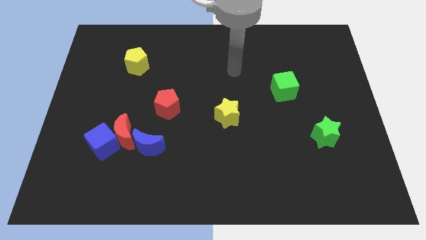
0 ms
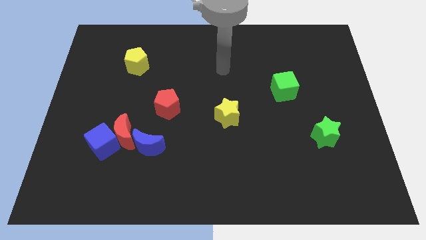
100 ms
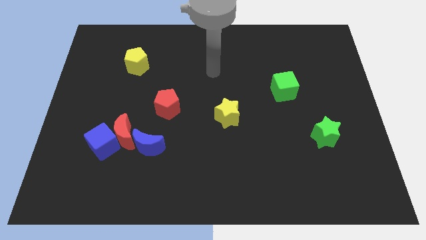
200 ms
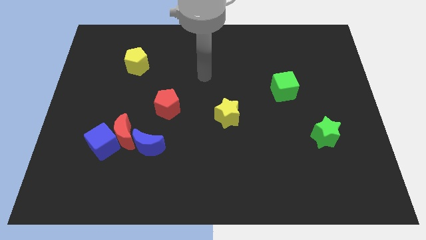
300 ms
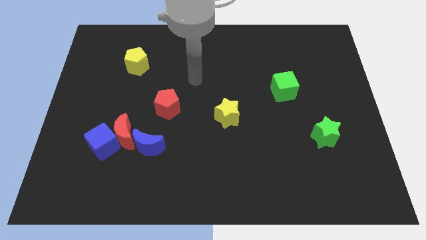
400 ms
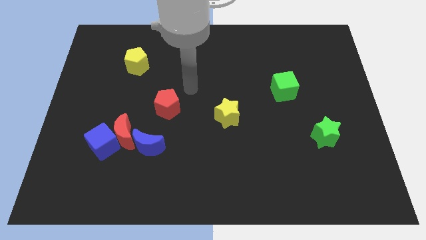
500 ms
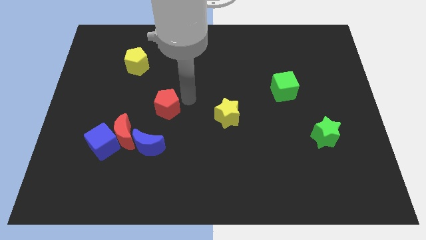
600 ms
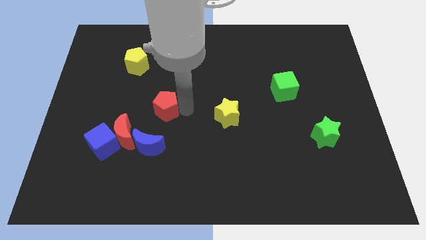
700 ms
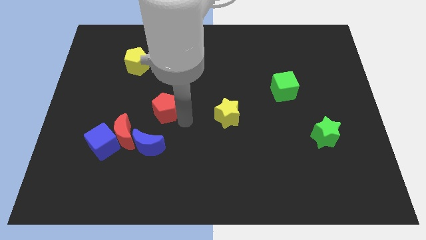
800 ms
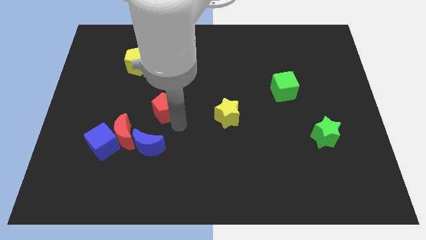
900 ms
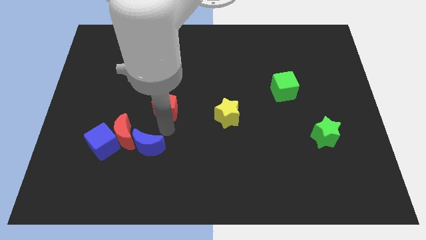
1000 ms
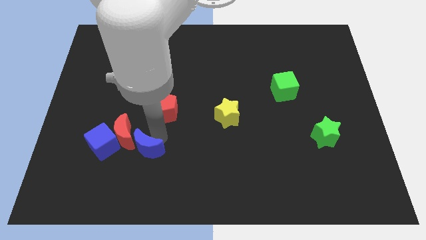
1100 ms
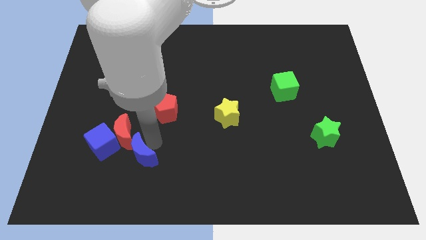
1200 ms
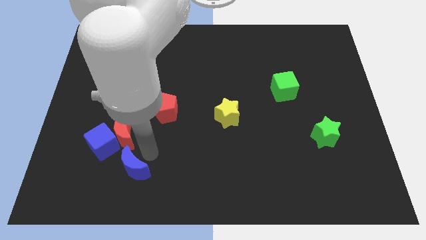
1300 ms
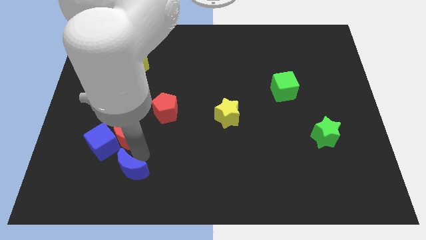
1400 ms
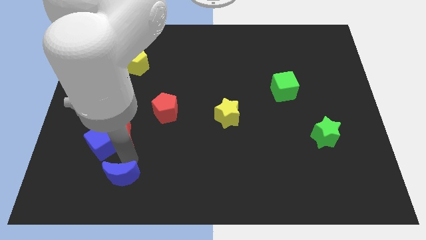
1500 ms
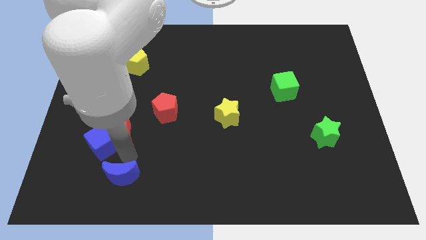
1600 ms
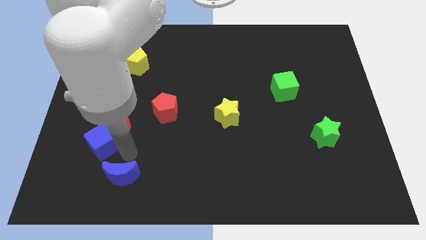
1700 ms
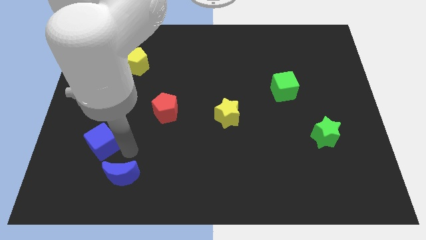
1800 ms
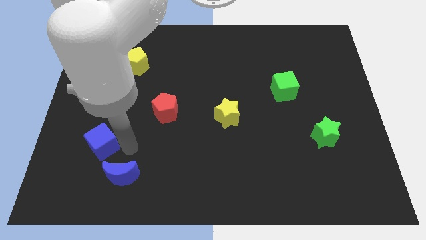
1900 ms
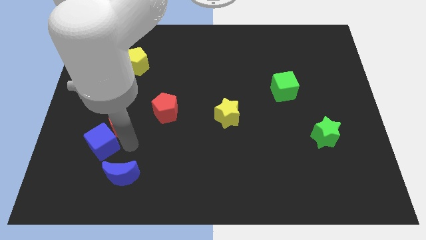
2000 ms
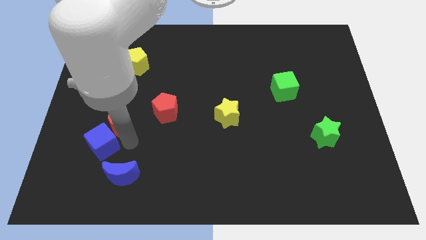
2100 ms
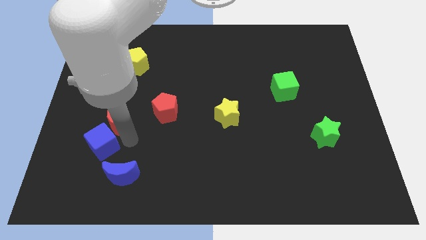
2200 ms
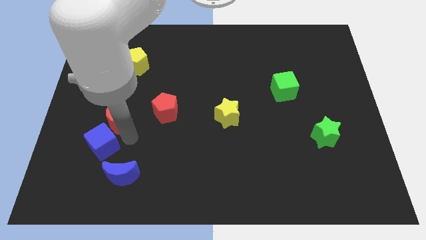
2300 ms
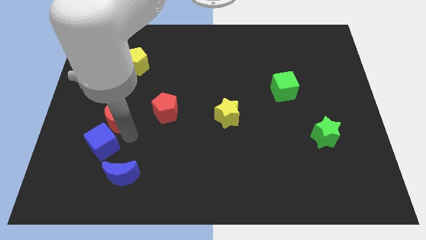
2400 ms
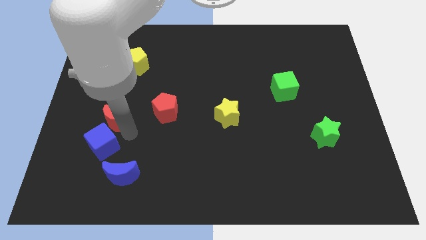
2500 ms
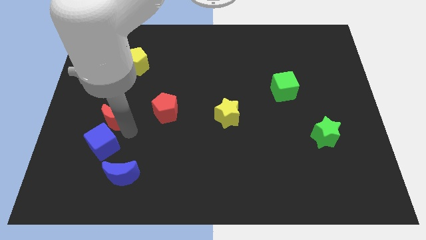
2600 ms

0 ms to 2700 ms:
pull the red moon apart from the blue cube and blue moon

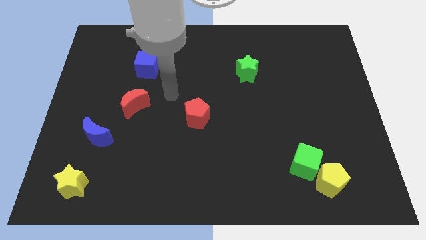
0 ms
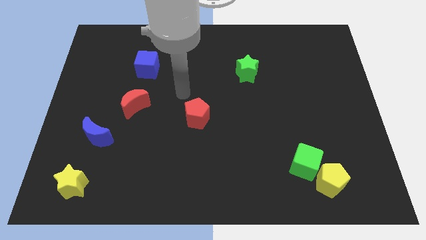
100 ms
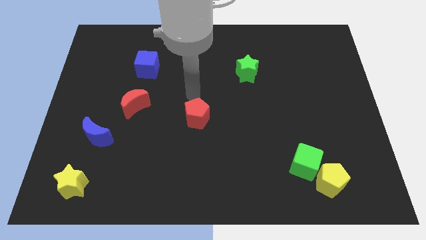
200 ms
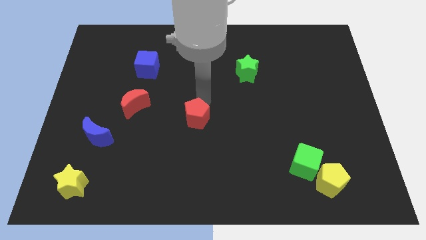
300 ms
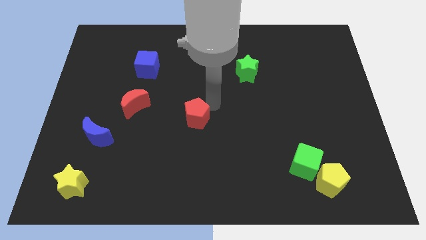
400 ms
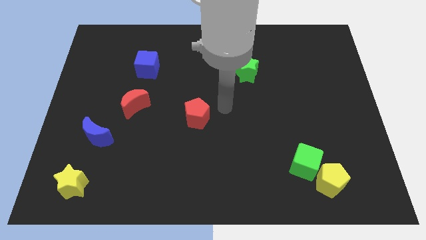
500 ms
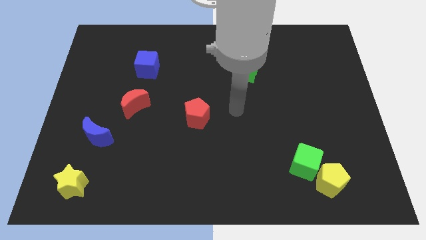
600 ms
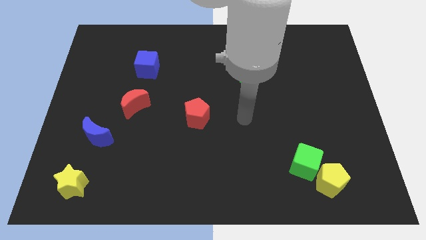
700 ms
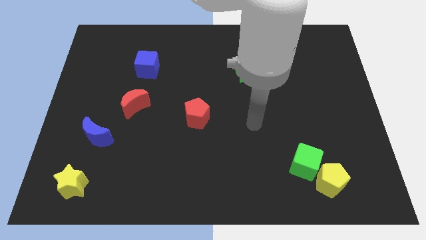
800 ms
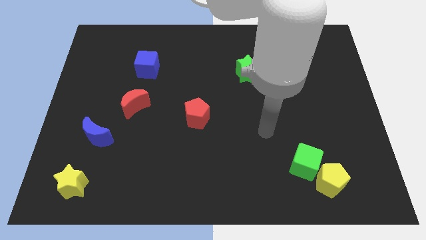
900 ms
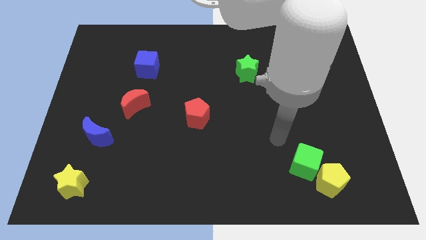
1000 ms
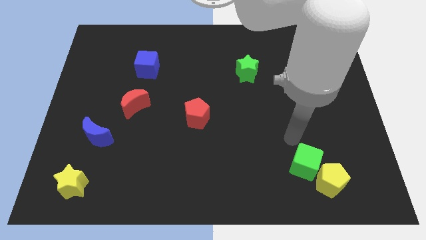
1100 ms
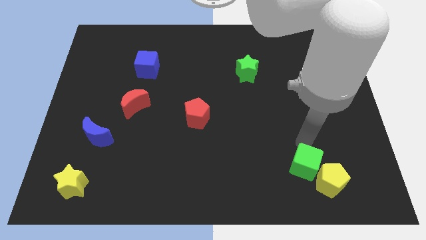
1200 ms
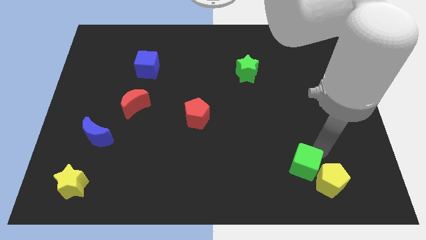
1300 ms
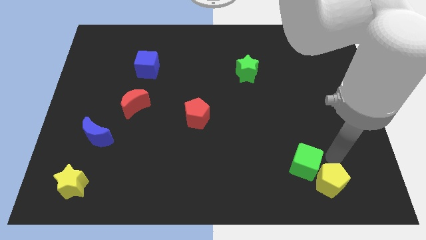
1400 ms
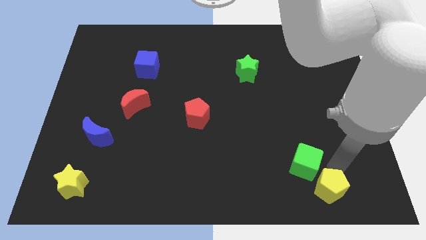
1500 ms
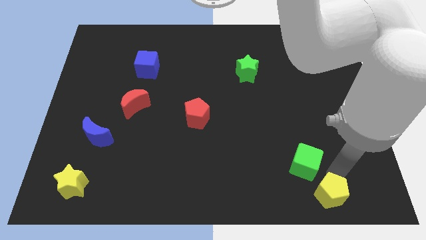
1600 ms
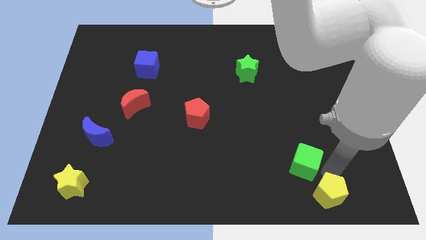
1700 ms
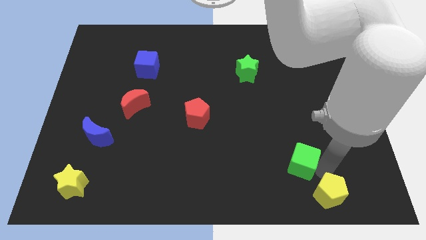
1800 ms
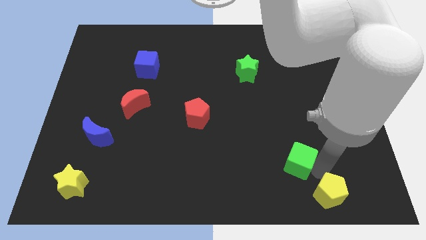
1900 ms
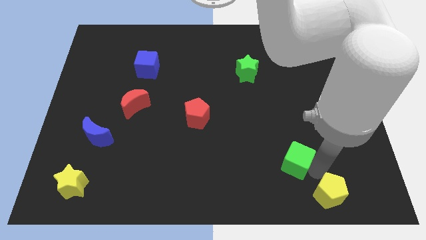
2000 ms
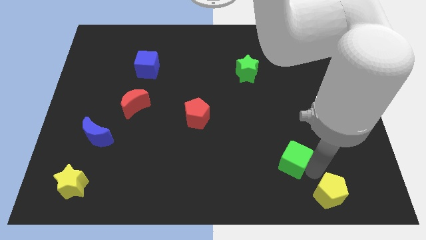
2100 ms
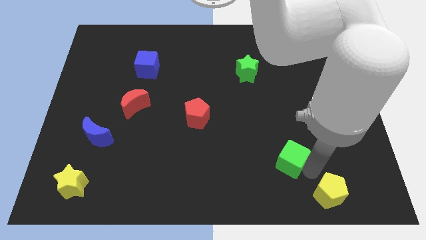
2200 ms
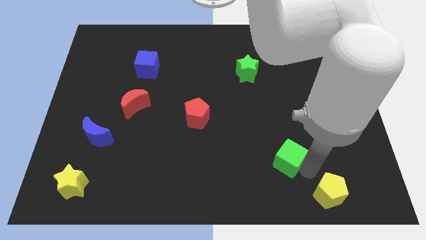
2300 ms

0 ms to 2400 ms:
separate the green cube from the yellow pentagon

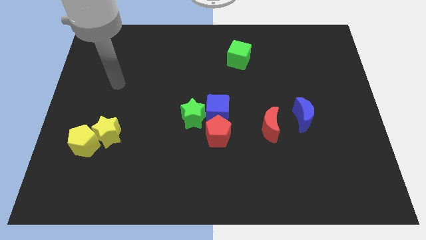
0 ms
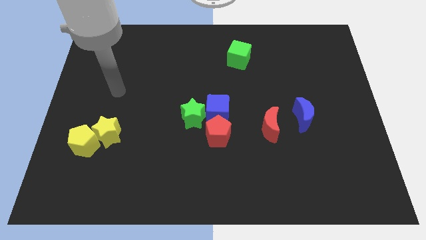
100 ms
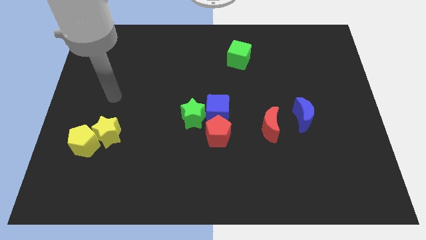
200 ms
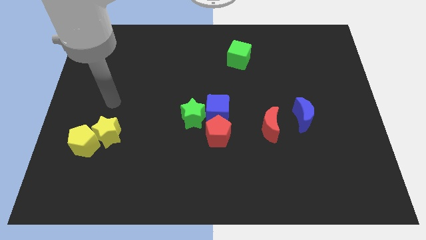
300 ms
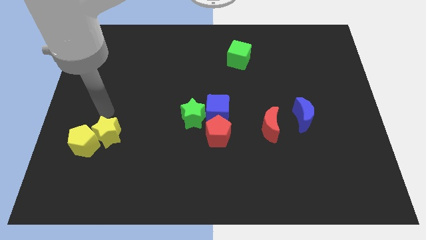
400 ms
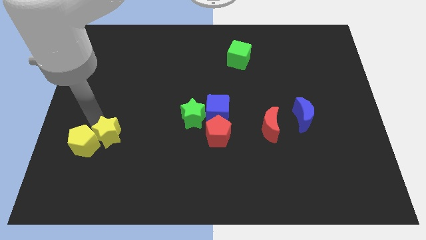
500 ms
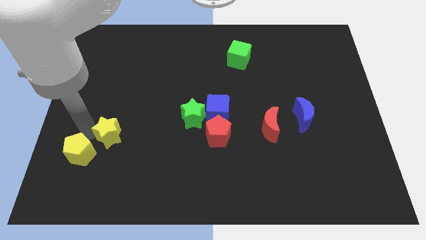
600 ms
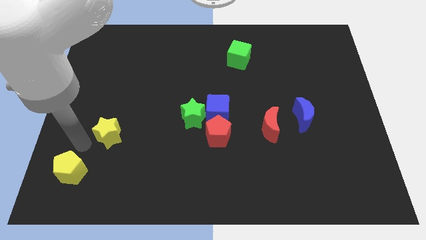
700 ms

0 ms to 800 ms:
pull the yellow star apart from the yellow pentagon

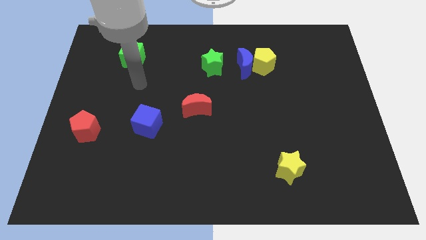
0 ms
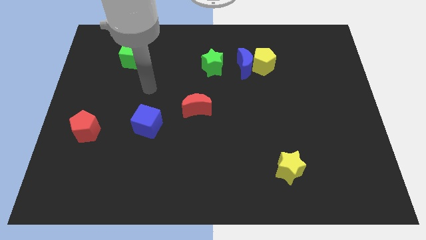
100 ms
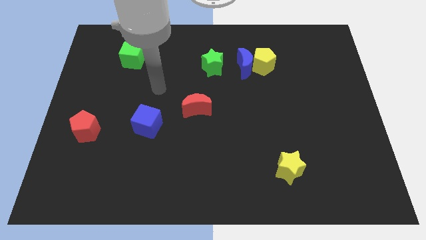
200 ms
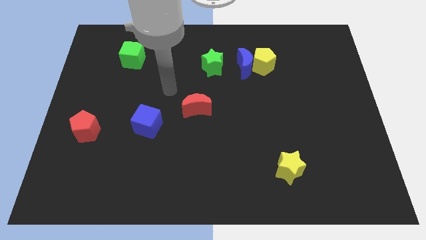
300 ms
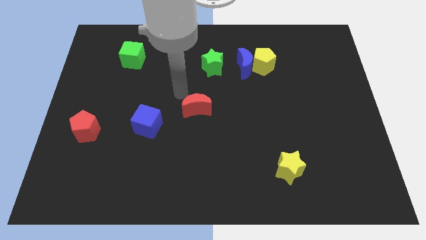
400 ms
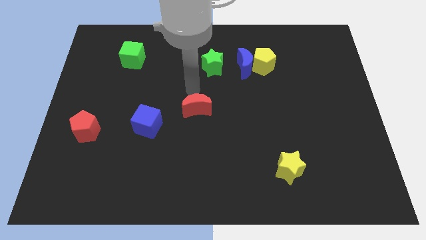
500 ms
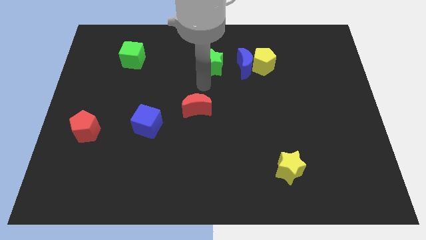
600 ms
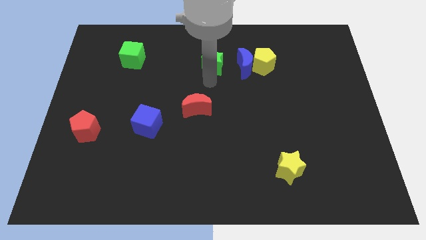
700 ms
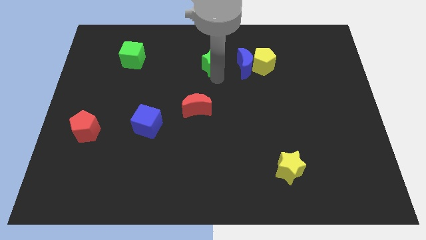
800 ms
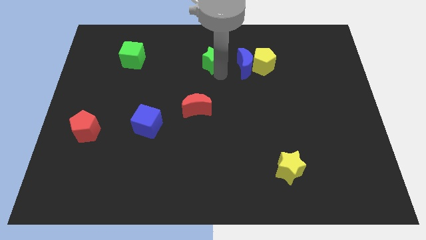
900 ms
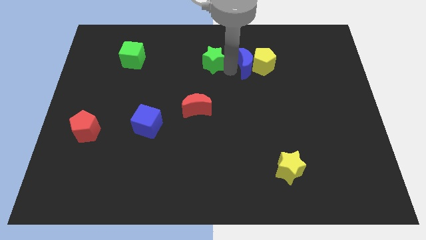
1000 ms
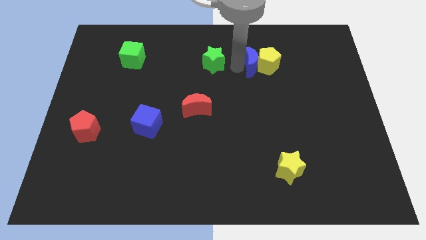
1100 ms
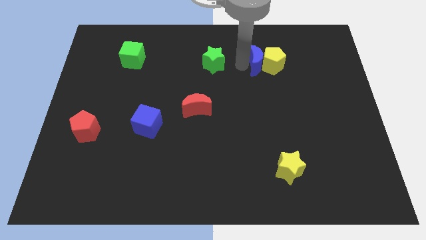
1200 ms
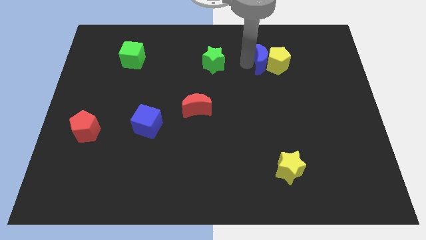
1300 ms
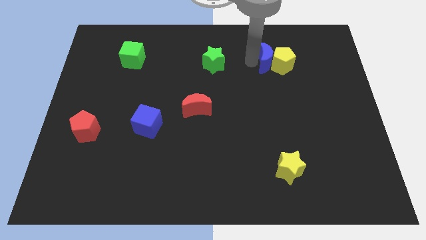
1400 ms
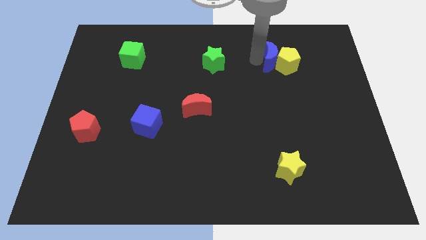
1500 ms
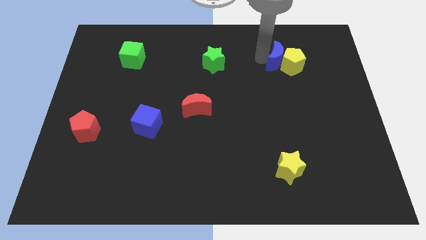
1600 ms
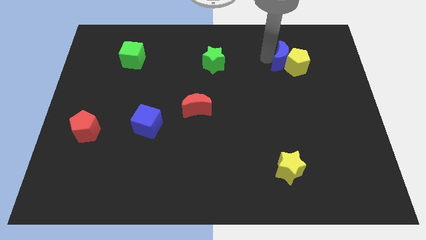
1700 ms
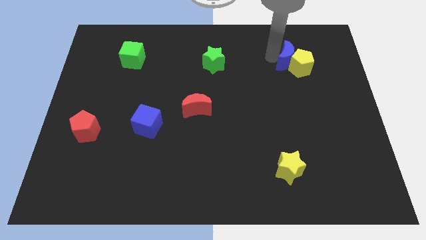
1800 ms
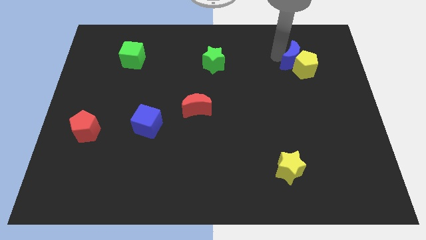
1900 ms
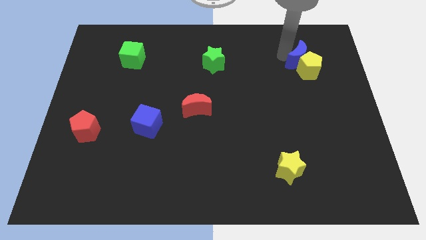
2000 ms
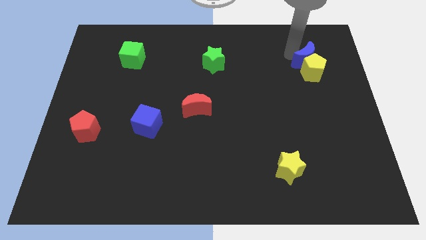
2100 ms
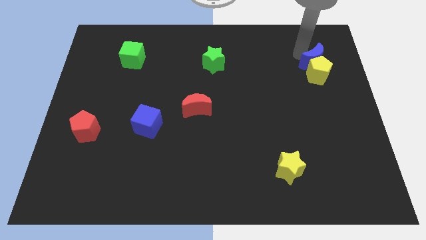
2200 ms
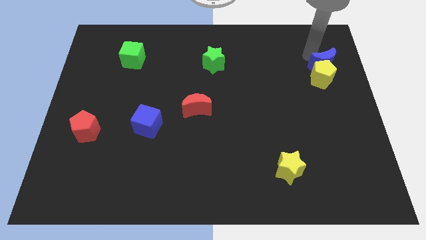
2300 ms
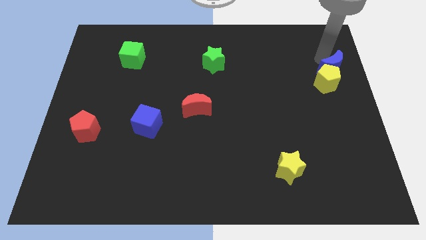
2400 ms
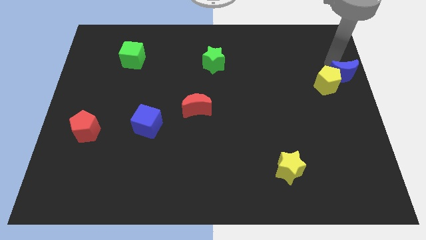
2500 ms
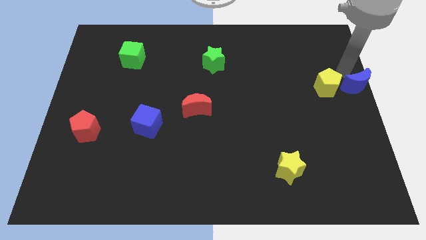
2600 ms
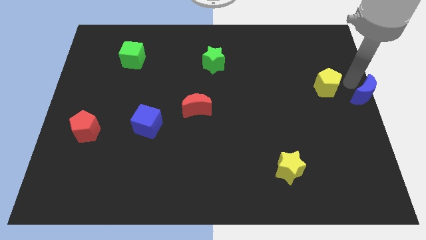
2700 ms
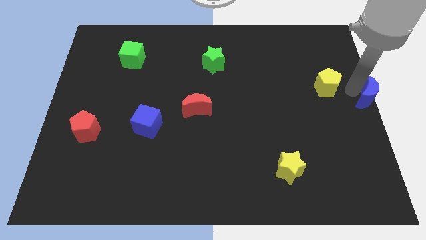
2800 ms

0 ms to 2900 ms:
separate the yellow pentagon from the blue moon

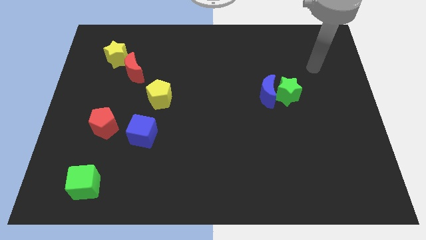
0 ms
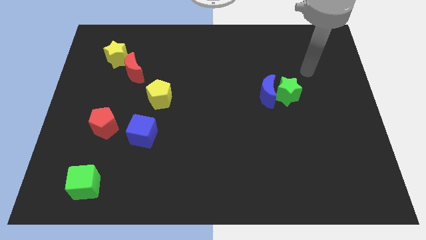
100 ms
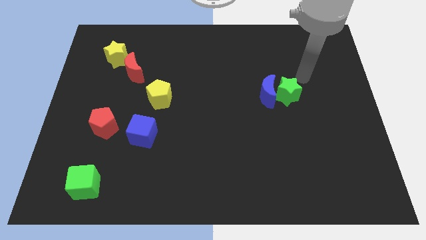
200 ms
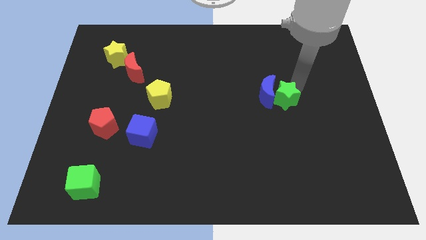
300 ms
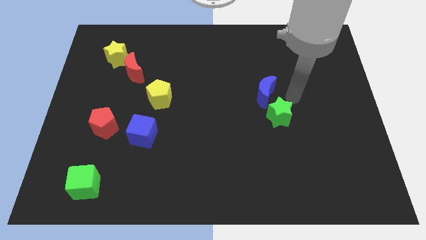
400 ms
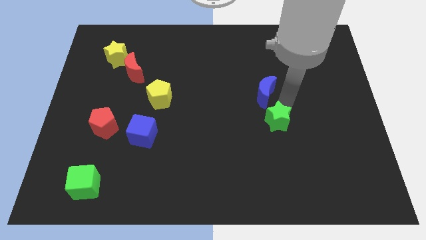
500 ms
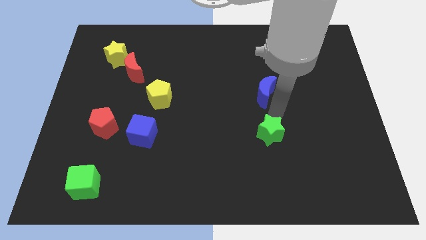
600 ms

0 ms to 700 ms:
move the blue moon away from the green star
